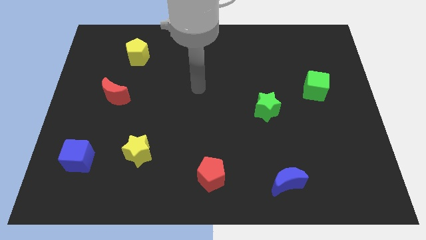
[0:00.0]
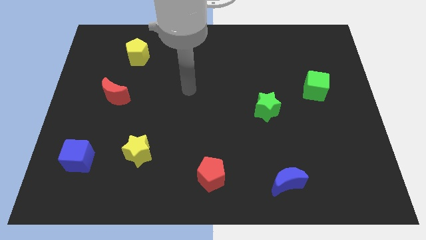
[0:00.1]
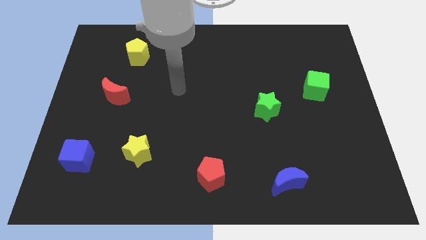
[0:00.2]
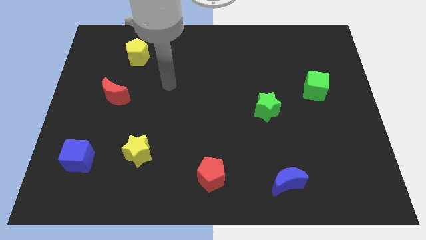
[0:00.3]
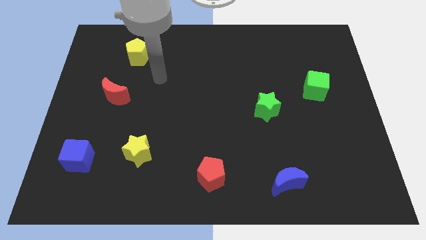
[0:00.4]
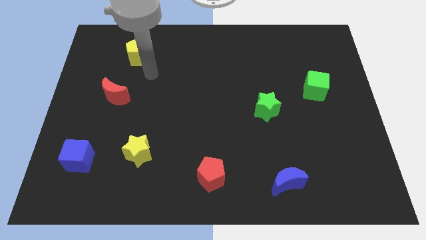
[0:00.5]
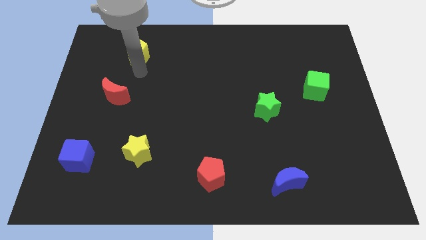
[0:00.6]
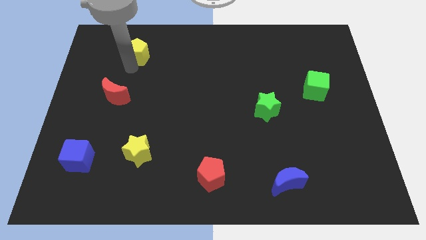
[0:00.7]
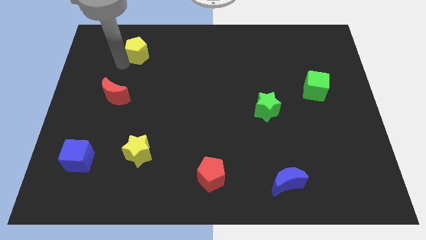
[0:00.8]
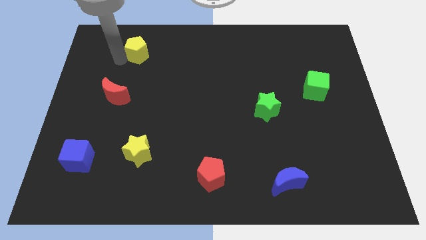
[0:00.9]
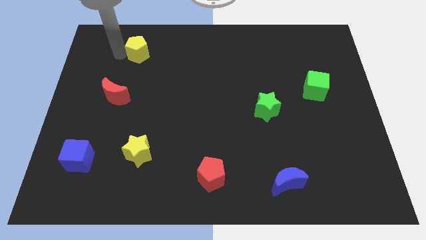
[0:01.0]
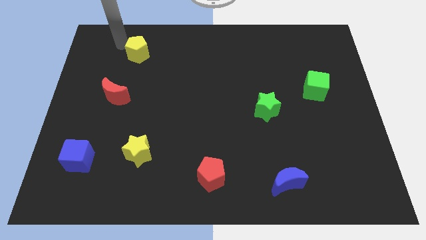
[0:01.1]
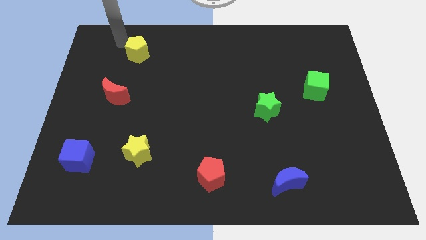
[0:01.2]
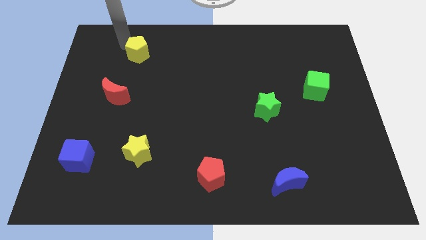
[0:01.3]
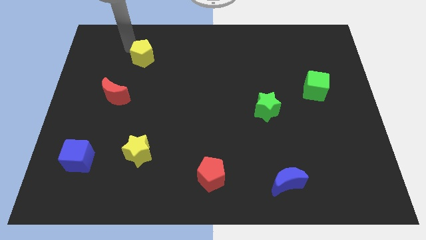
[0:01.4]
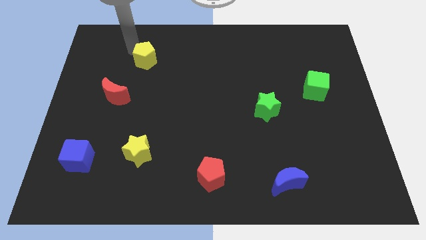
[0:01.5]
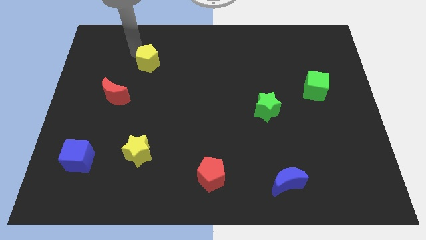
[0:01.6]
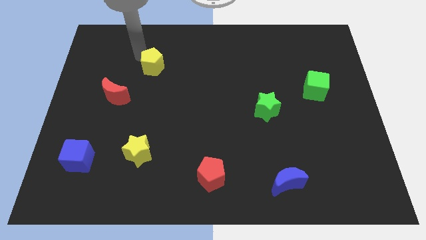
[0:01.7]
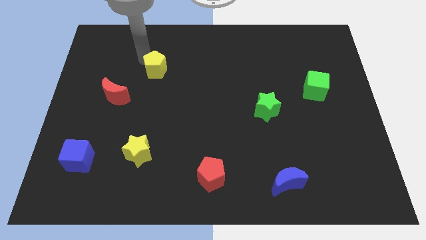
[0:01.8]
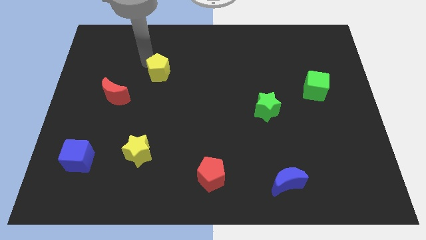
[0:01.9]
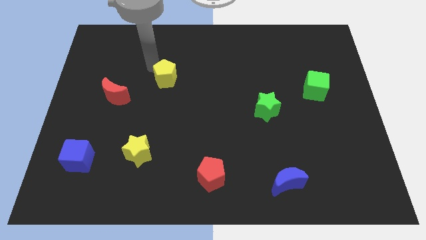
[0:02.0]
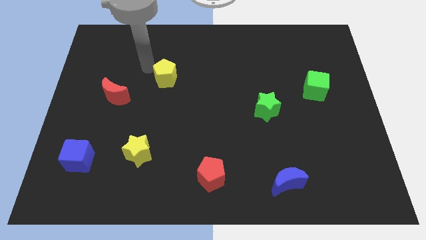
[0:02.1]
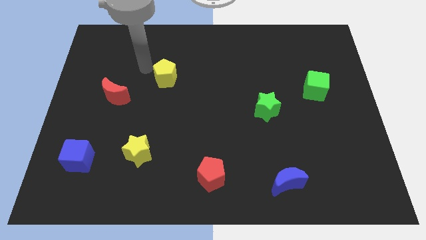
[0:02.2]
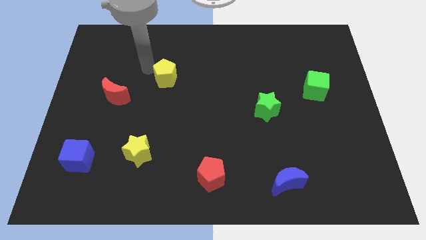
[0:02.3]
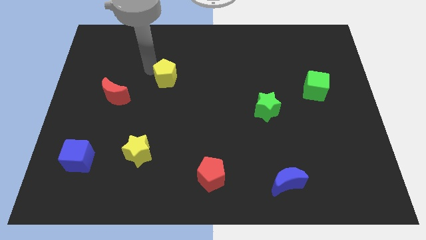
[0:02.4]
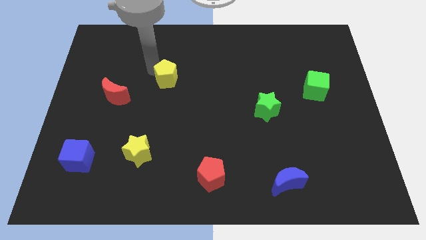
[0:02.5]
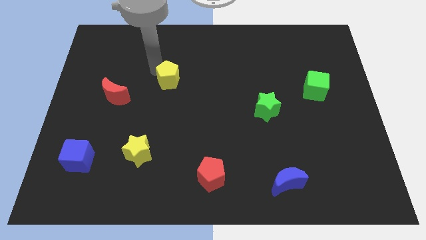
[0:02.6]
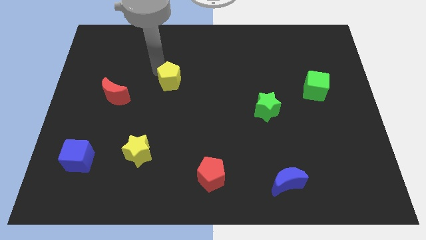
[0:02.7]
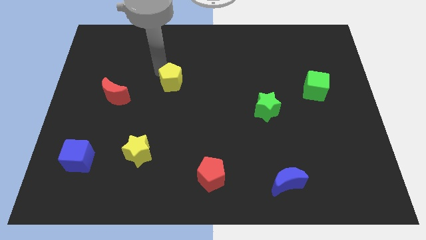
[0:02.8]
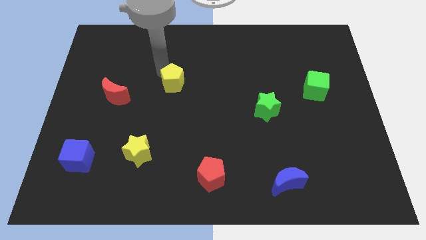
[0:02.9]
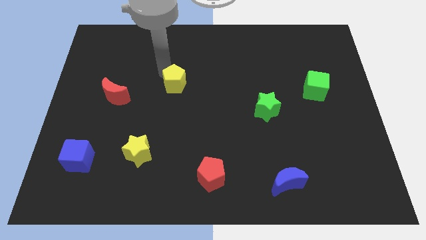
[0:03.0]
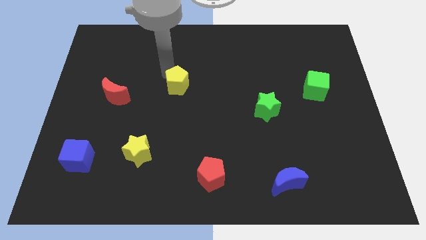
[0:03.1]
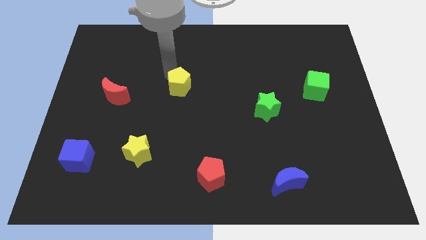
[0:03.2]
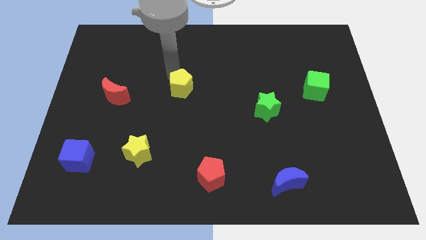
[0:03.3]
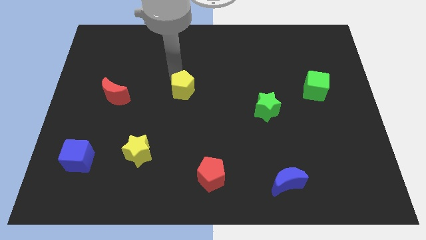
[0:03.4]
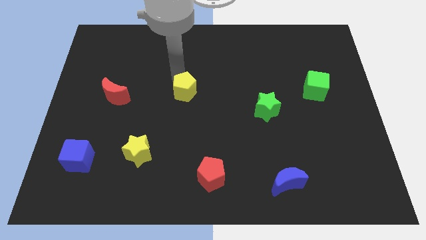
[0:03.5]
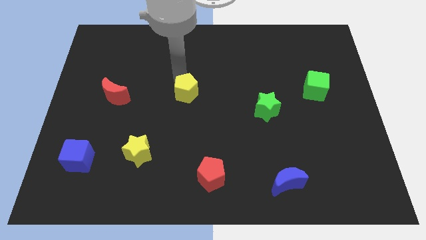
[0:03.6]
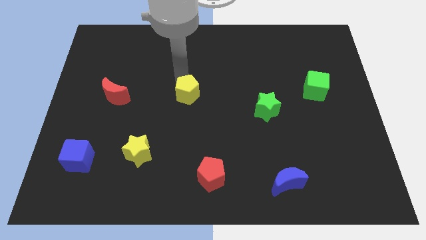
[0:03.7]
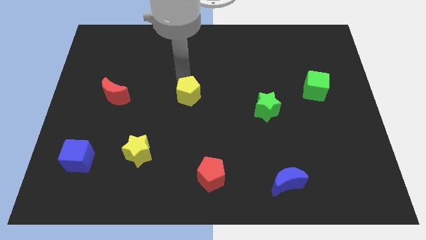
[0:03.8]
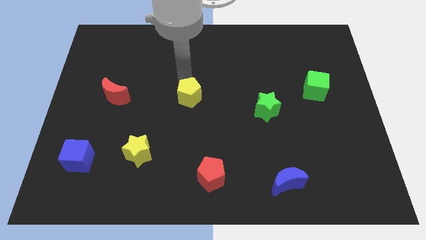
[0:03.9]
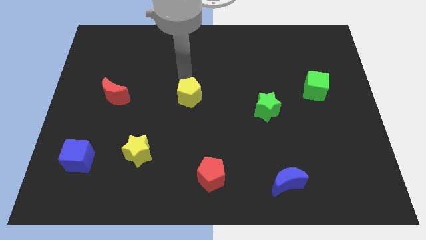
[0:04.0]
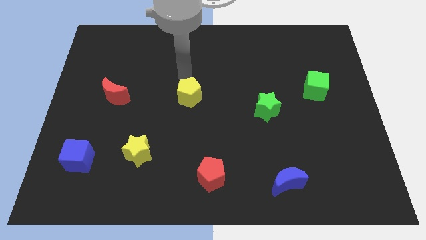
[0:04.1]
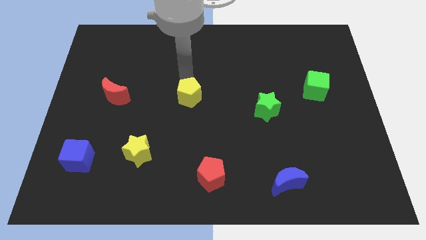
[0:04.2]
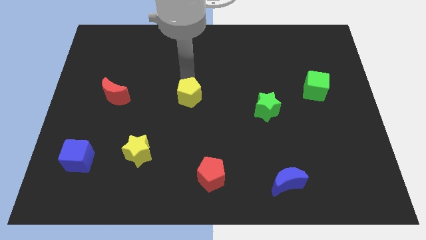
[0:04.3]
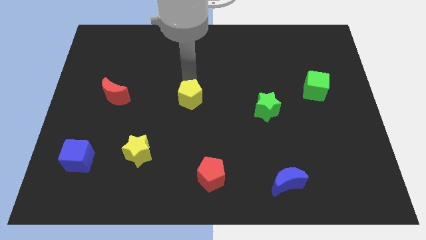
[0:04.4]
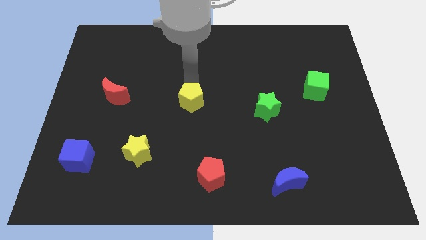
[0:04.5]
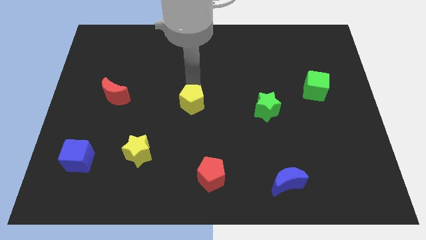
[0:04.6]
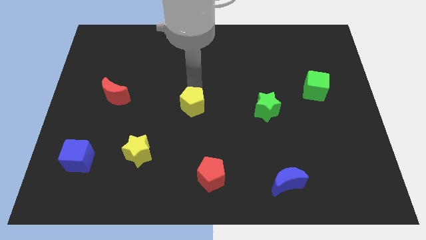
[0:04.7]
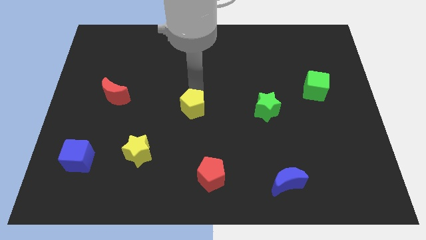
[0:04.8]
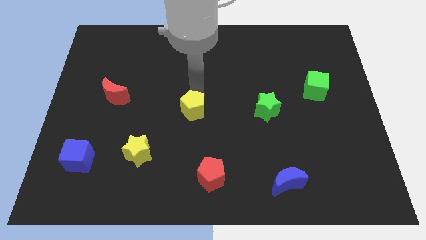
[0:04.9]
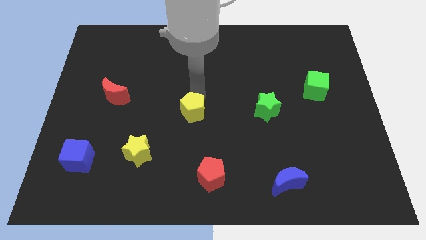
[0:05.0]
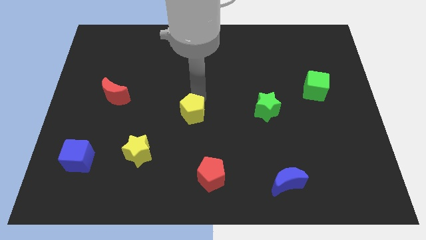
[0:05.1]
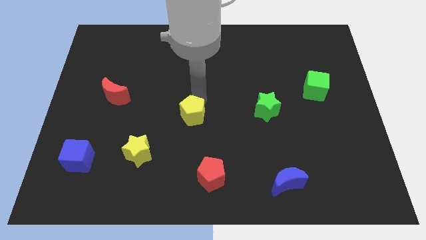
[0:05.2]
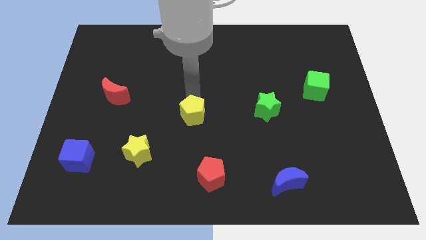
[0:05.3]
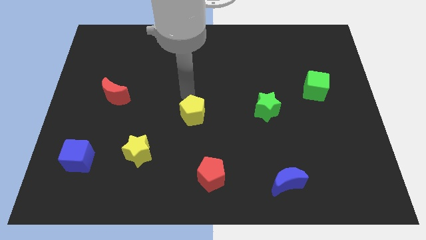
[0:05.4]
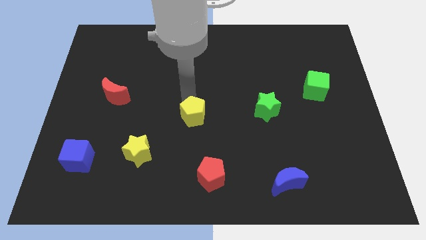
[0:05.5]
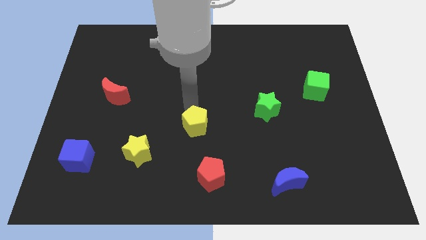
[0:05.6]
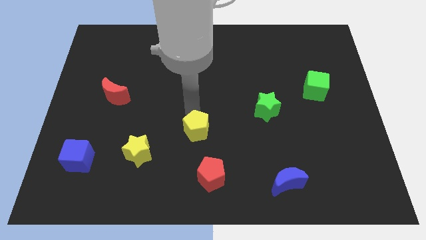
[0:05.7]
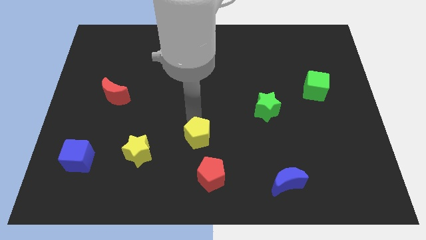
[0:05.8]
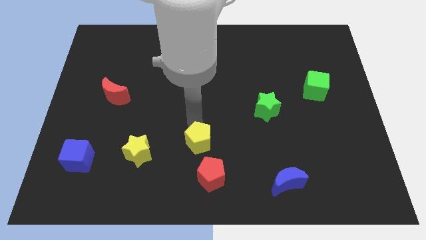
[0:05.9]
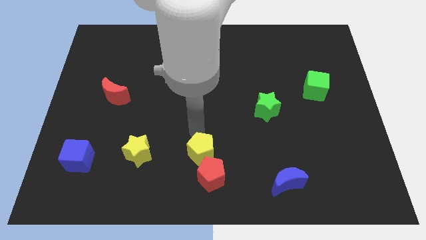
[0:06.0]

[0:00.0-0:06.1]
put the yellow pentagon towards the red pentagon
